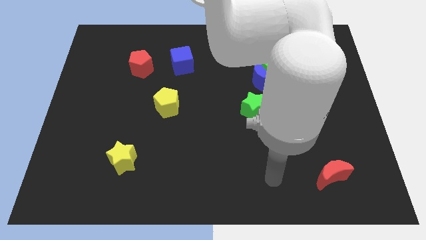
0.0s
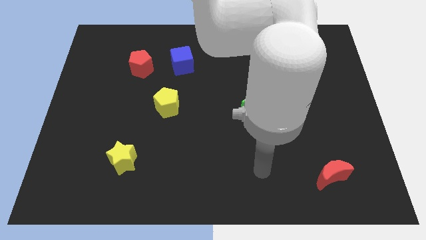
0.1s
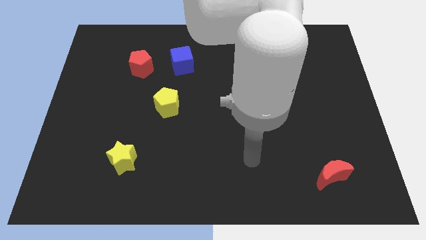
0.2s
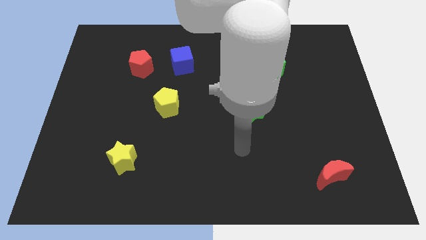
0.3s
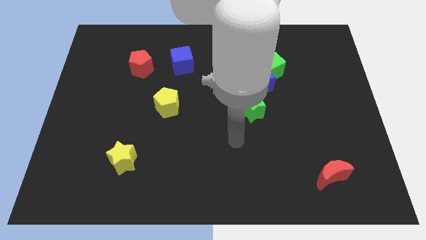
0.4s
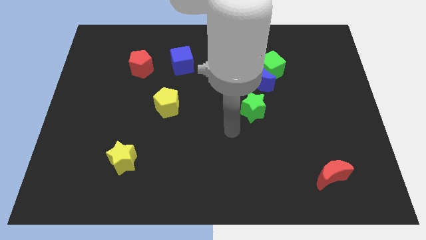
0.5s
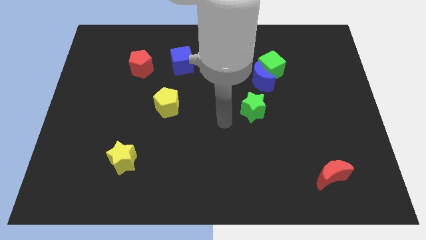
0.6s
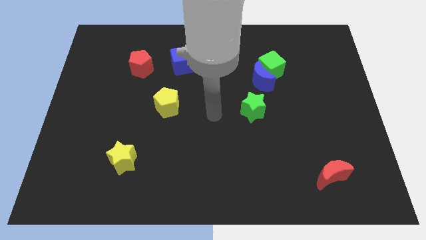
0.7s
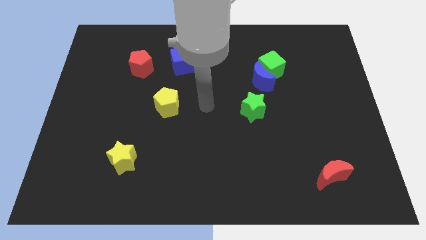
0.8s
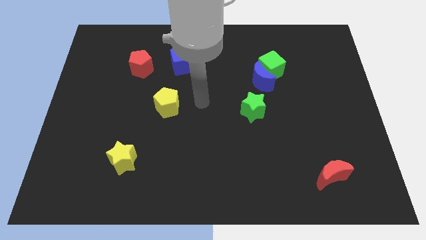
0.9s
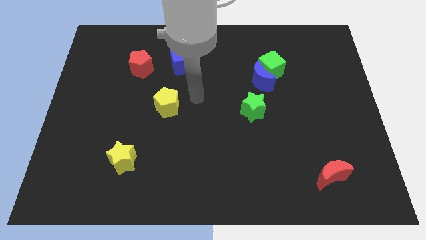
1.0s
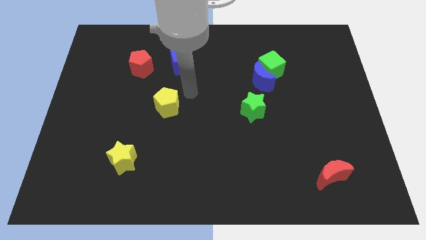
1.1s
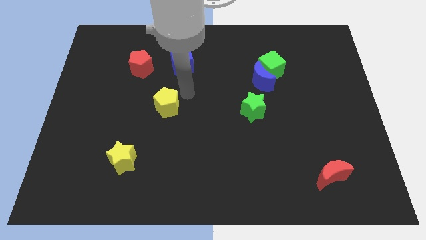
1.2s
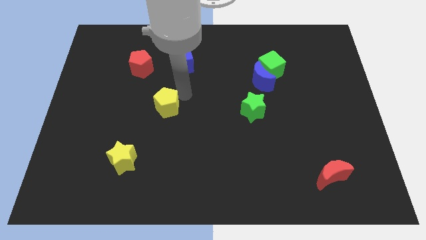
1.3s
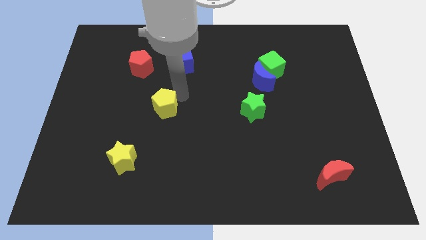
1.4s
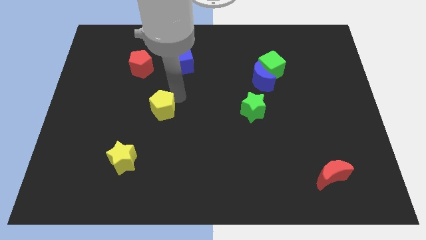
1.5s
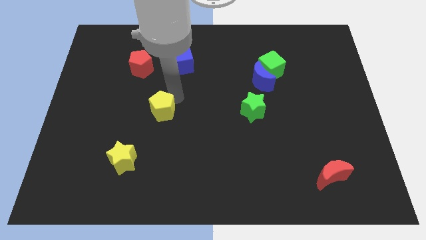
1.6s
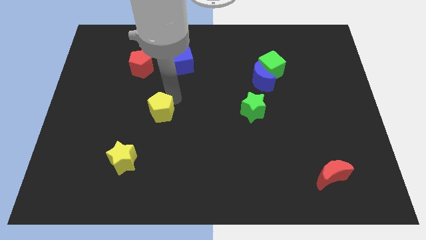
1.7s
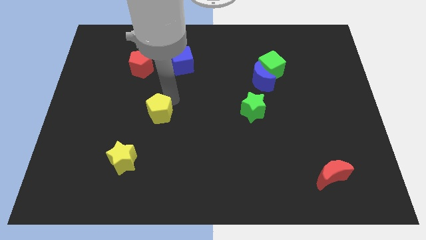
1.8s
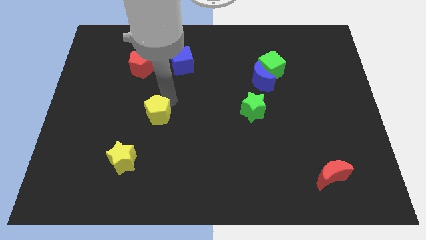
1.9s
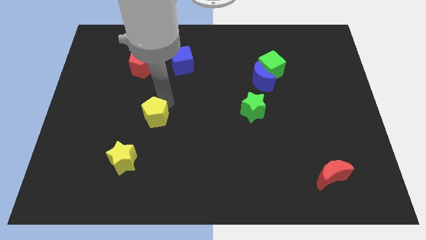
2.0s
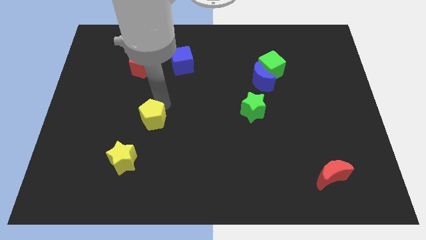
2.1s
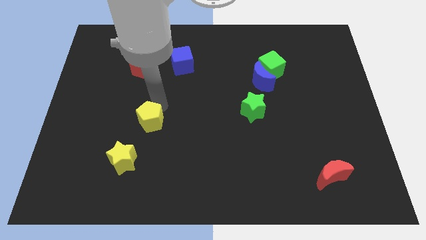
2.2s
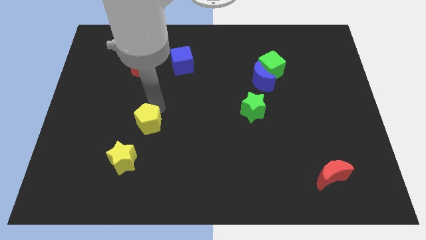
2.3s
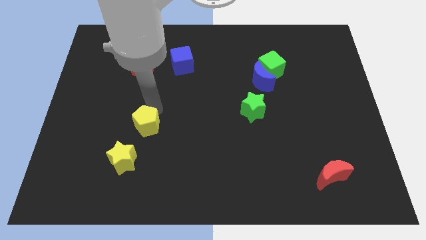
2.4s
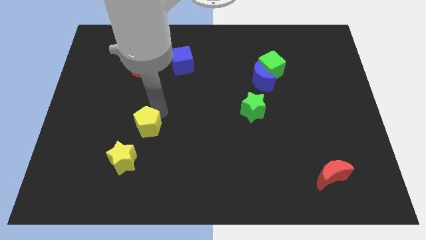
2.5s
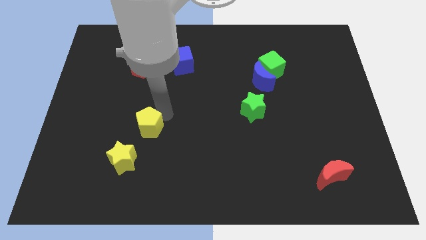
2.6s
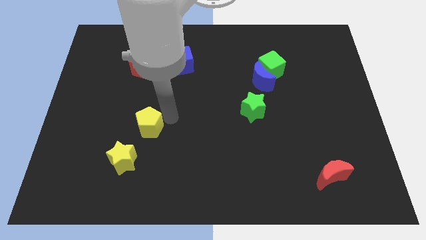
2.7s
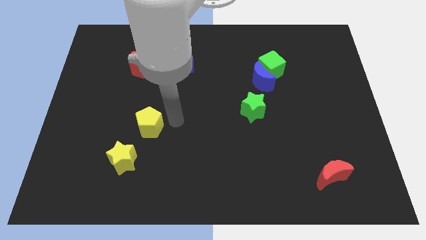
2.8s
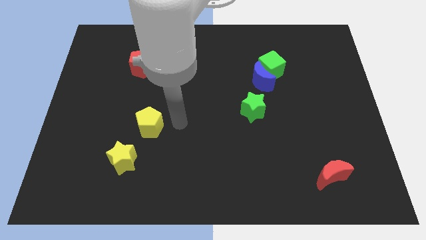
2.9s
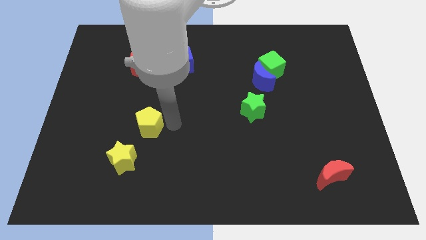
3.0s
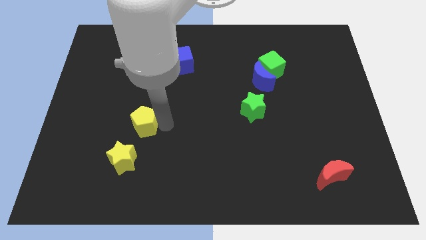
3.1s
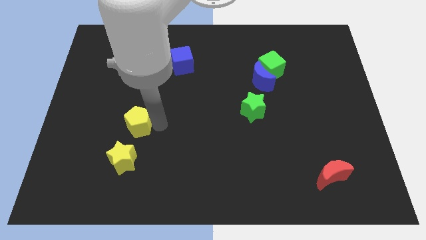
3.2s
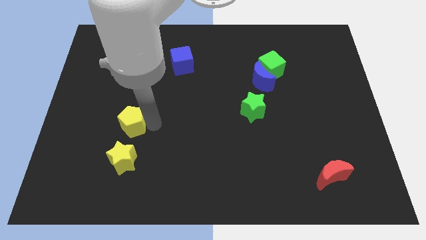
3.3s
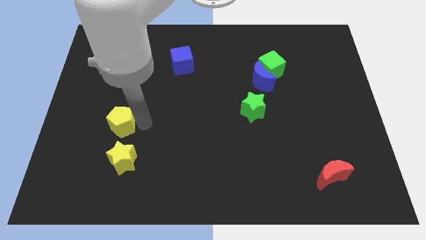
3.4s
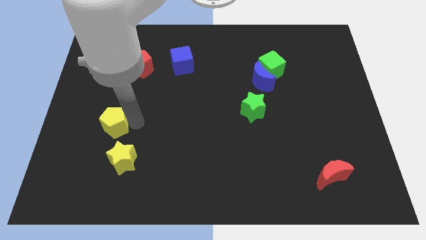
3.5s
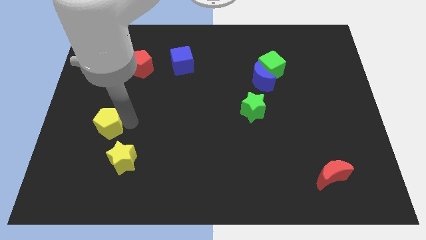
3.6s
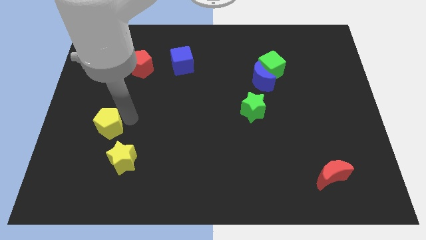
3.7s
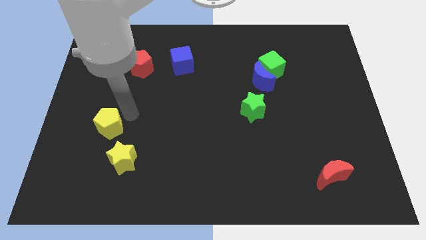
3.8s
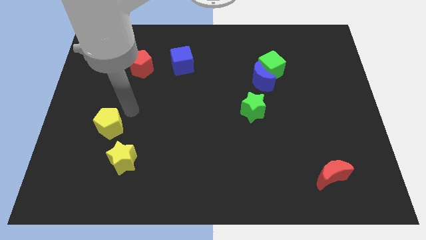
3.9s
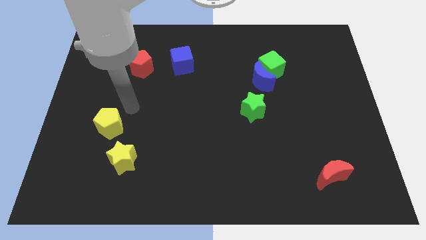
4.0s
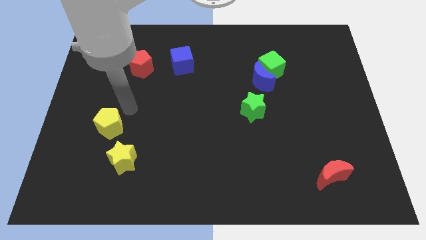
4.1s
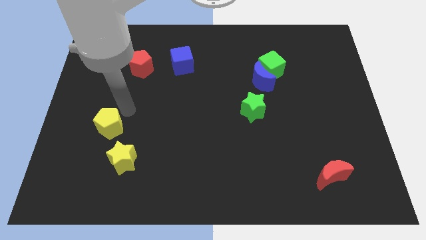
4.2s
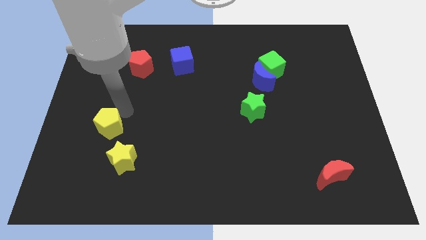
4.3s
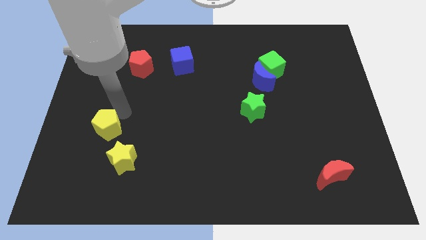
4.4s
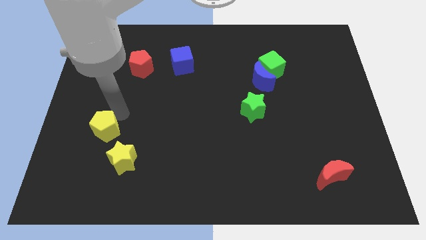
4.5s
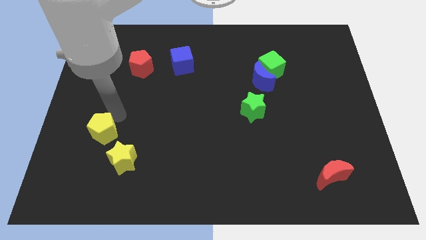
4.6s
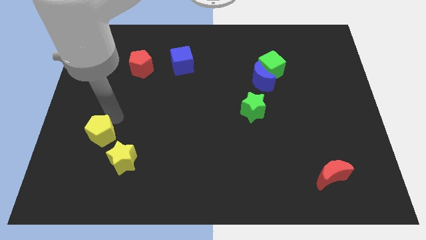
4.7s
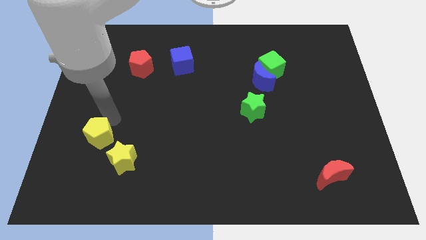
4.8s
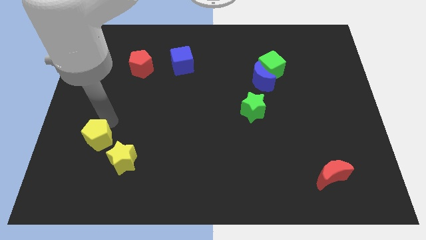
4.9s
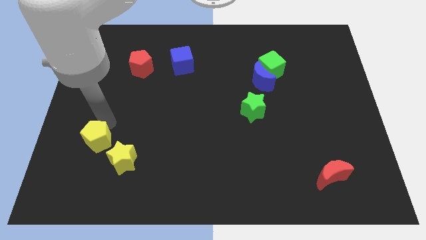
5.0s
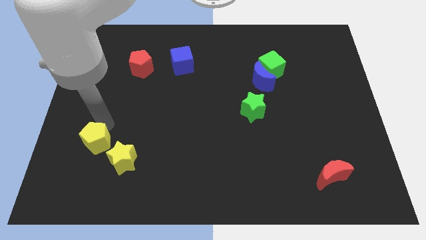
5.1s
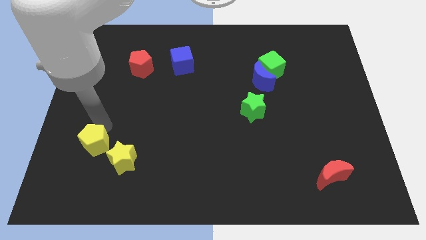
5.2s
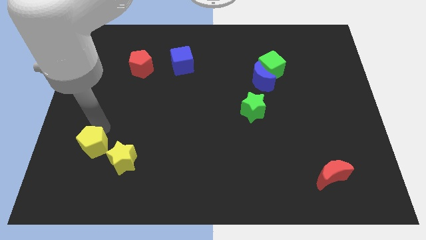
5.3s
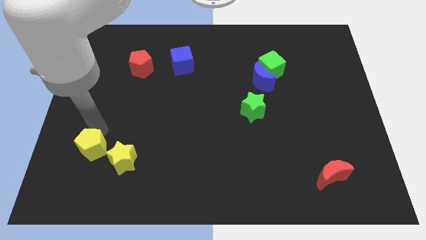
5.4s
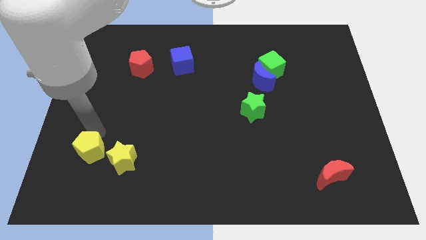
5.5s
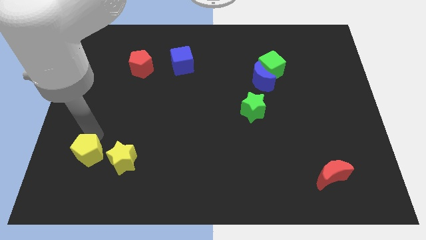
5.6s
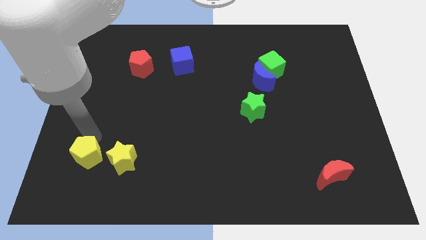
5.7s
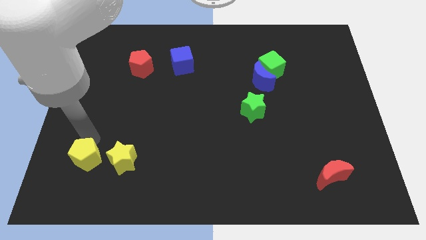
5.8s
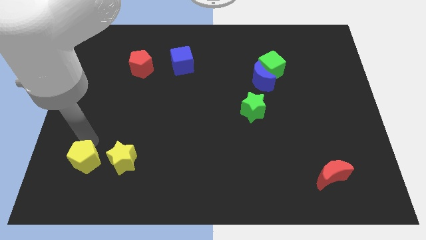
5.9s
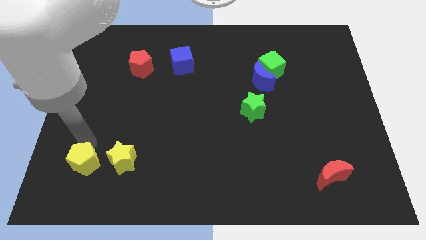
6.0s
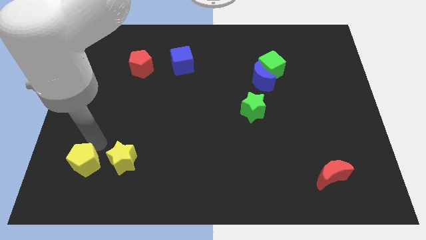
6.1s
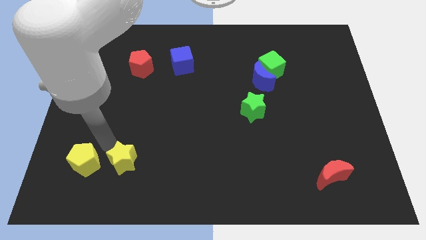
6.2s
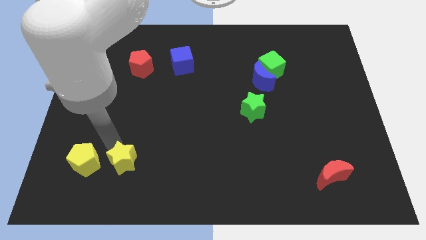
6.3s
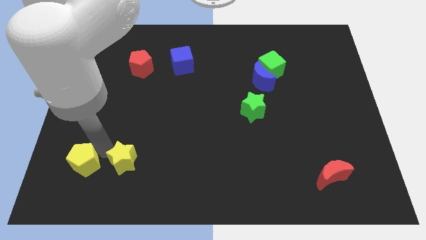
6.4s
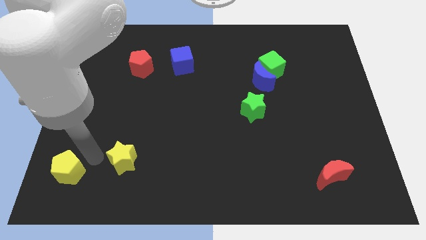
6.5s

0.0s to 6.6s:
move the yellow pentagon to the bottom left corner
